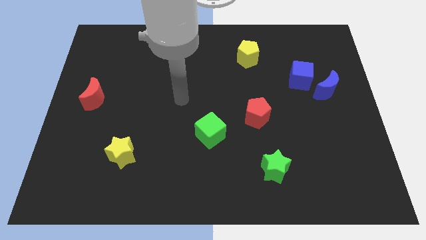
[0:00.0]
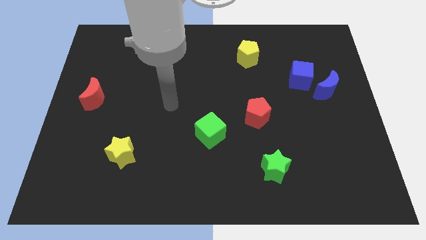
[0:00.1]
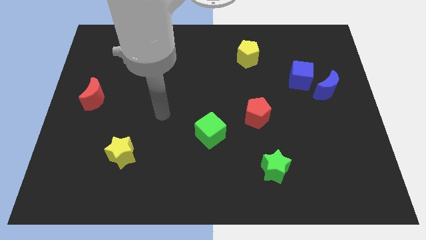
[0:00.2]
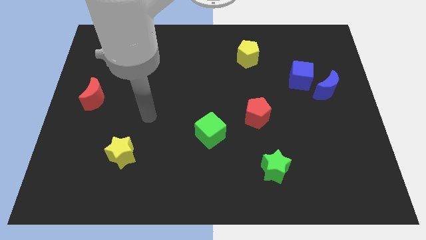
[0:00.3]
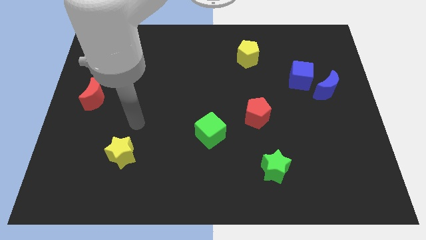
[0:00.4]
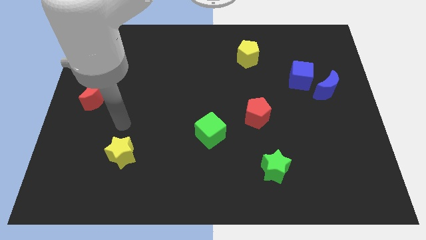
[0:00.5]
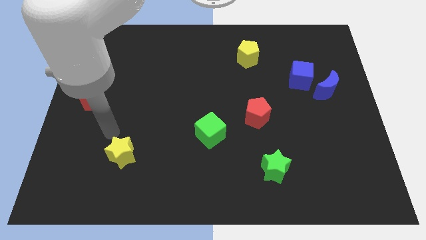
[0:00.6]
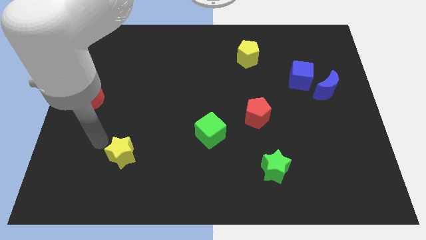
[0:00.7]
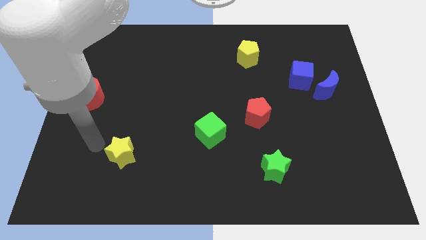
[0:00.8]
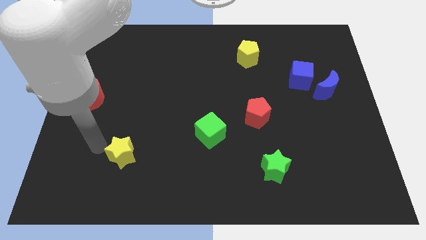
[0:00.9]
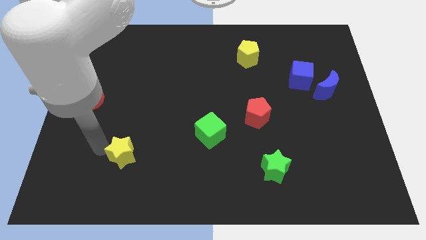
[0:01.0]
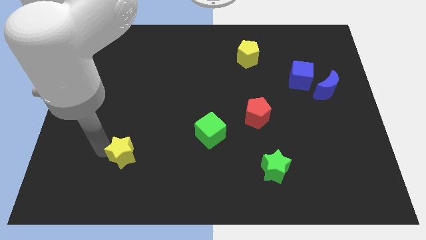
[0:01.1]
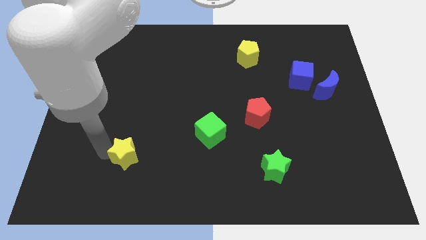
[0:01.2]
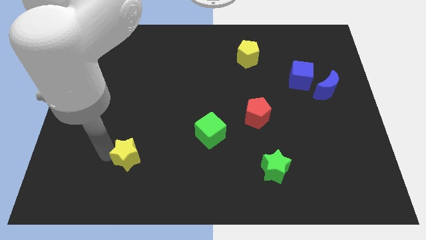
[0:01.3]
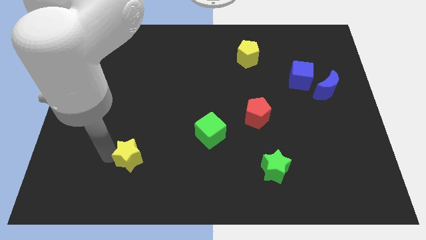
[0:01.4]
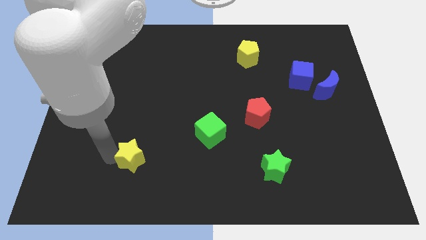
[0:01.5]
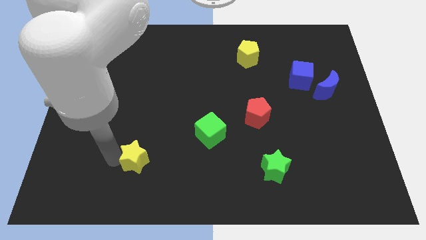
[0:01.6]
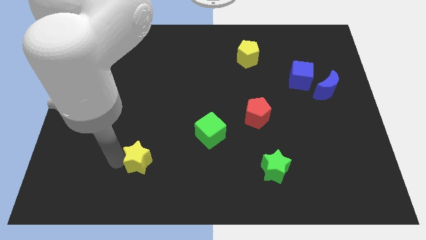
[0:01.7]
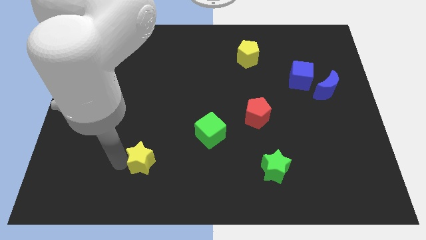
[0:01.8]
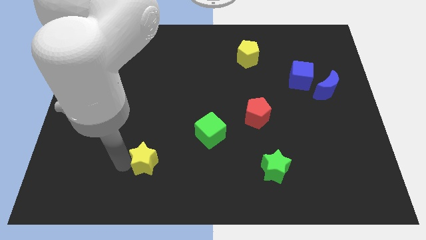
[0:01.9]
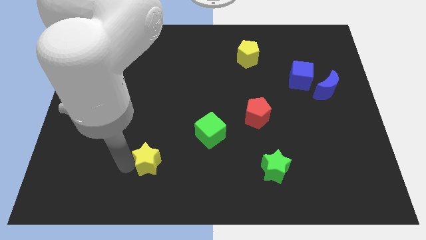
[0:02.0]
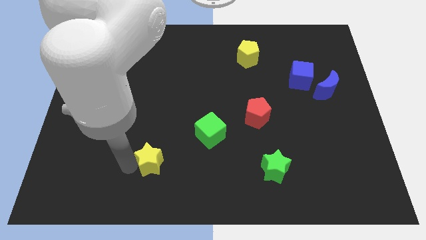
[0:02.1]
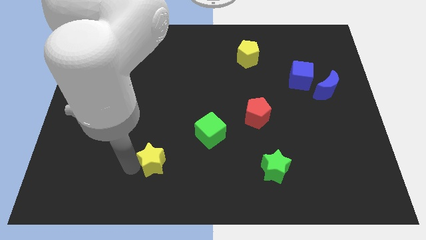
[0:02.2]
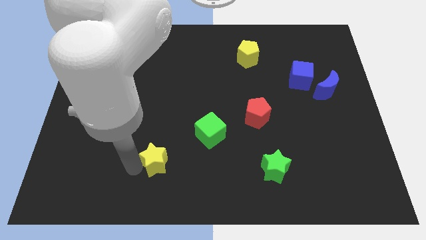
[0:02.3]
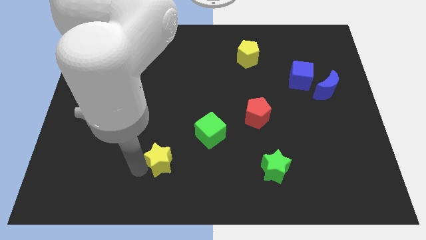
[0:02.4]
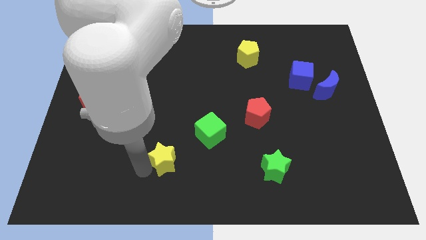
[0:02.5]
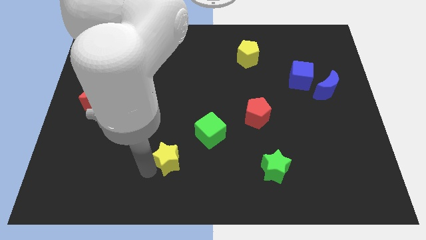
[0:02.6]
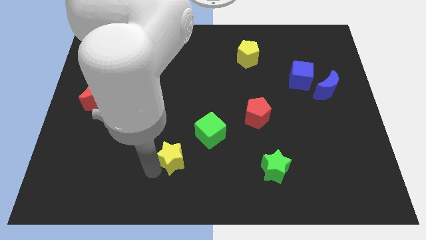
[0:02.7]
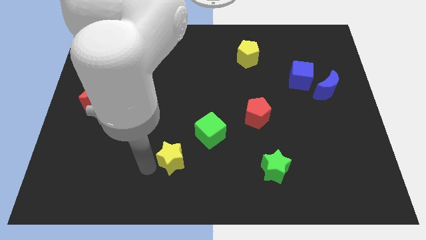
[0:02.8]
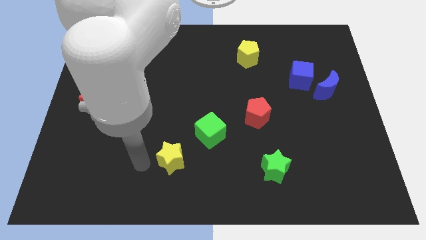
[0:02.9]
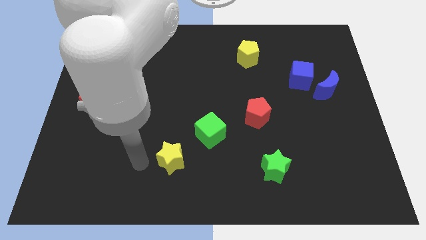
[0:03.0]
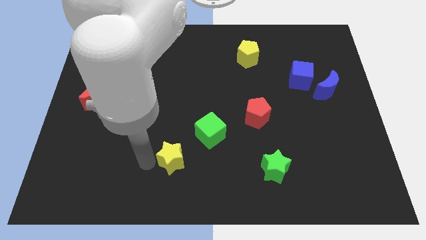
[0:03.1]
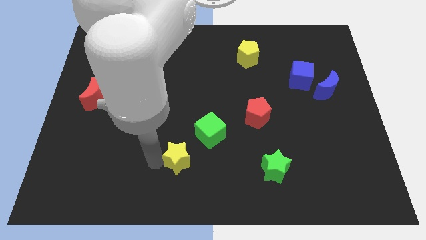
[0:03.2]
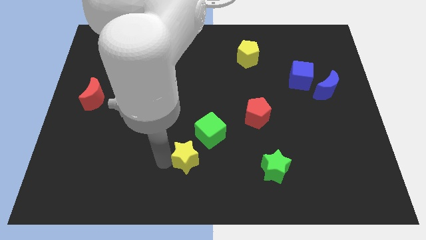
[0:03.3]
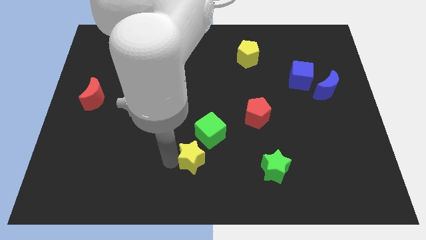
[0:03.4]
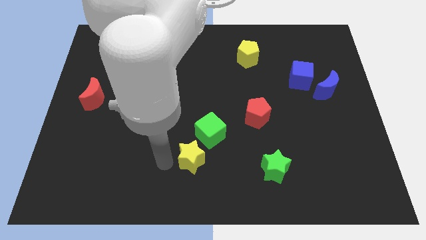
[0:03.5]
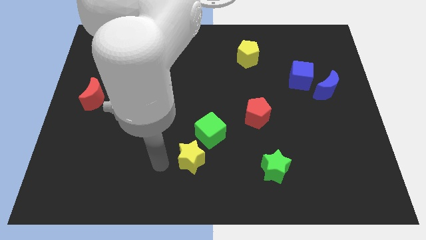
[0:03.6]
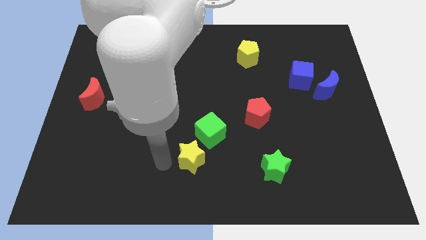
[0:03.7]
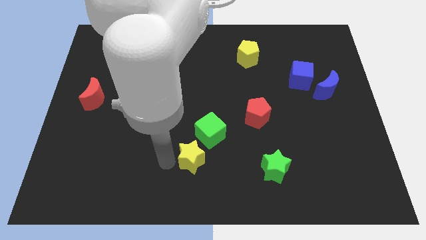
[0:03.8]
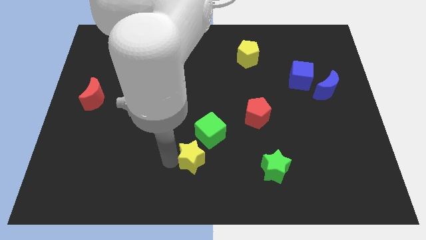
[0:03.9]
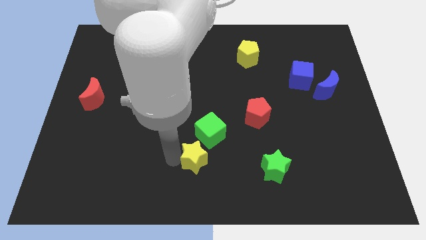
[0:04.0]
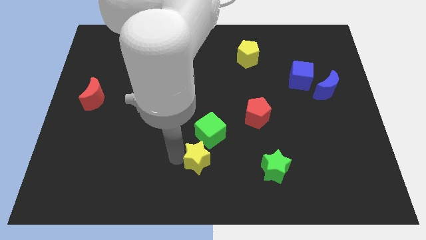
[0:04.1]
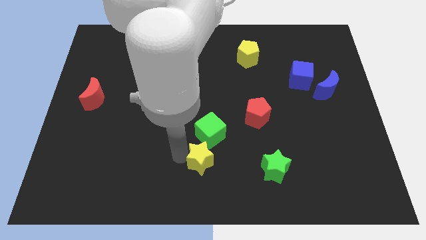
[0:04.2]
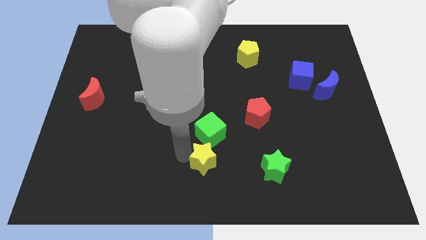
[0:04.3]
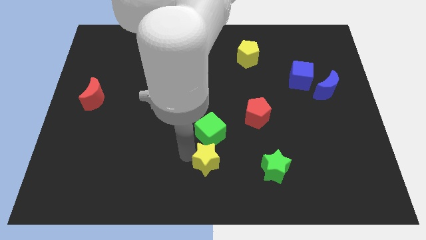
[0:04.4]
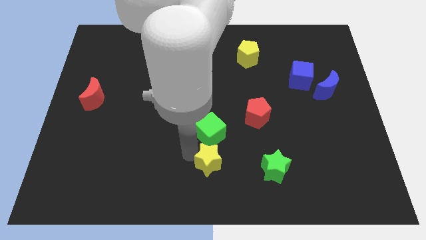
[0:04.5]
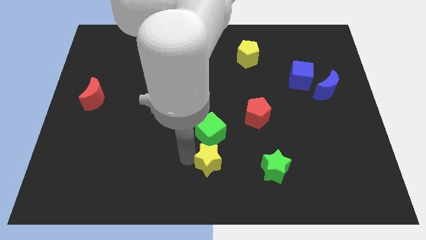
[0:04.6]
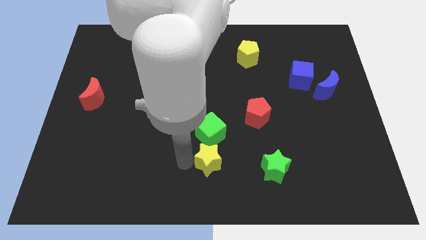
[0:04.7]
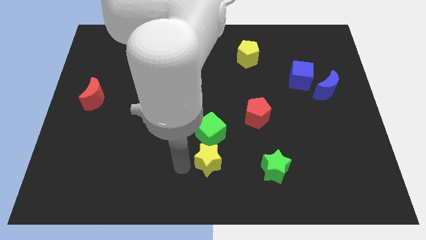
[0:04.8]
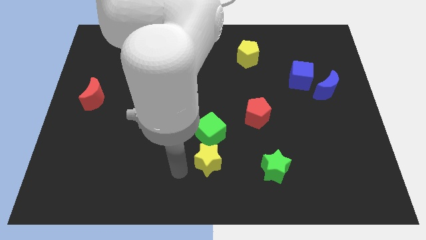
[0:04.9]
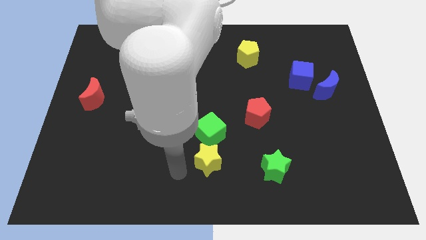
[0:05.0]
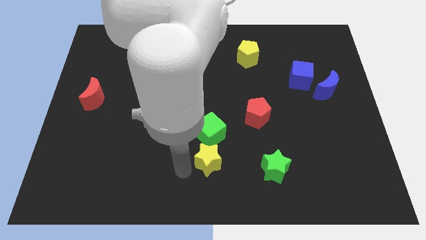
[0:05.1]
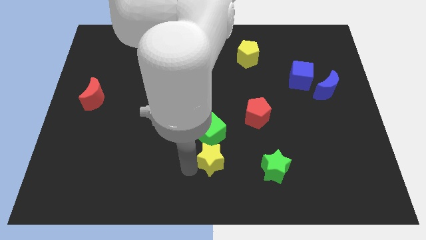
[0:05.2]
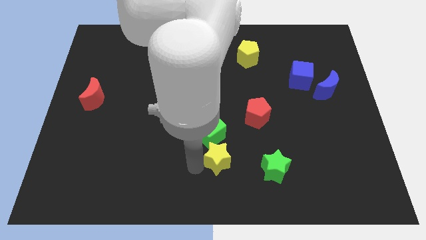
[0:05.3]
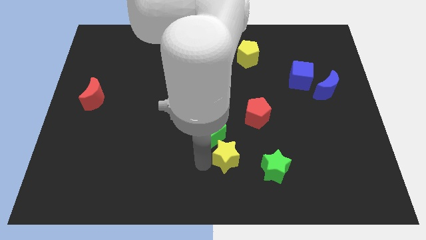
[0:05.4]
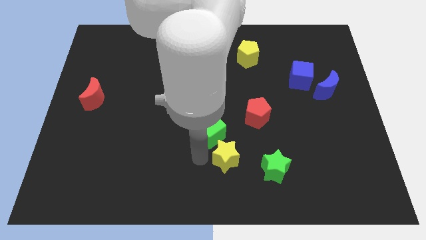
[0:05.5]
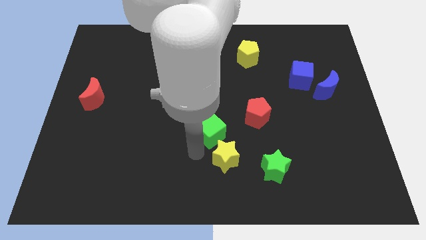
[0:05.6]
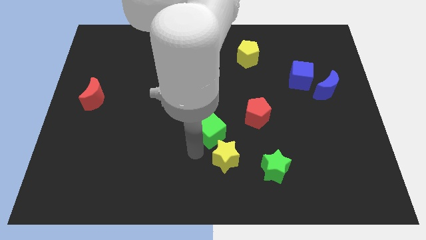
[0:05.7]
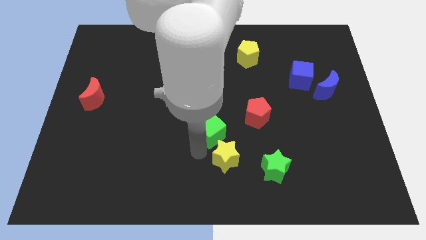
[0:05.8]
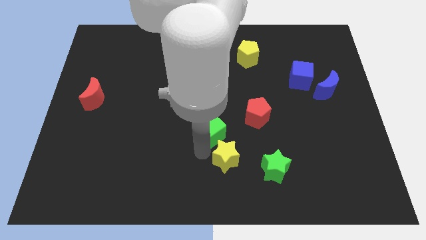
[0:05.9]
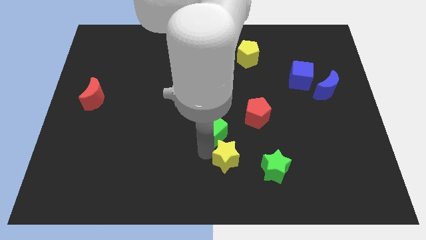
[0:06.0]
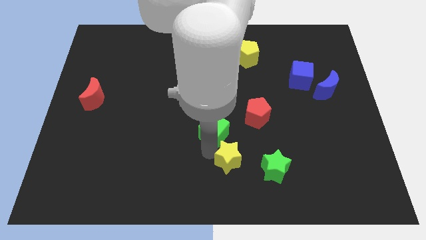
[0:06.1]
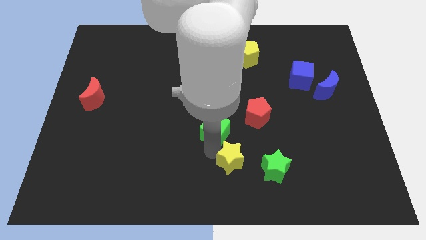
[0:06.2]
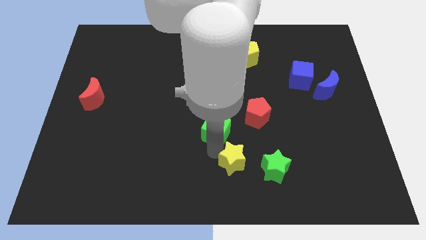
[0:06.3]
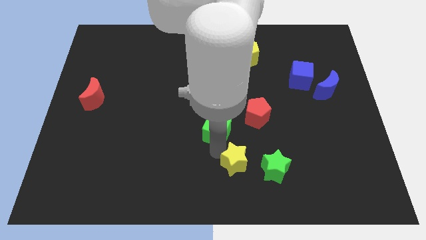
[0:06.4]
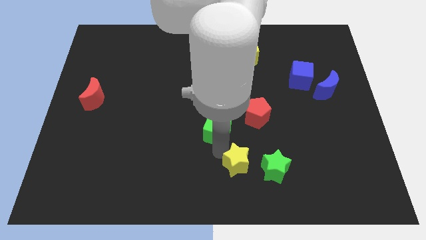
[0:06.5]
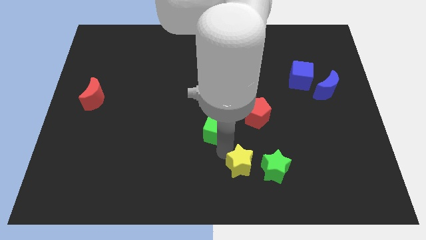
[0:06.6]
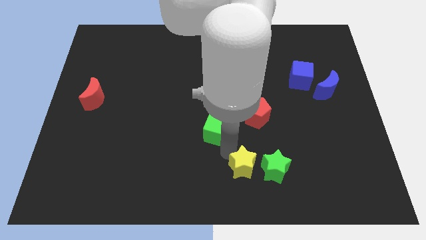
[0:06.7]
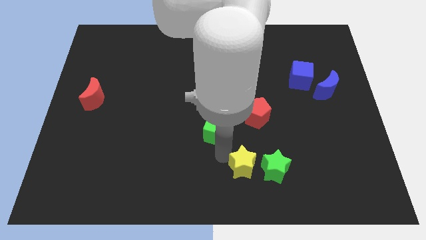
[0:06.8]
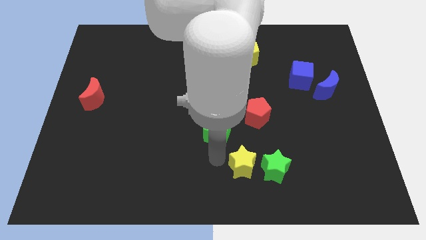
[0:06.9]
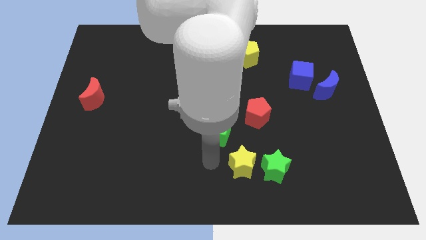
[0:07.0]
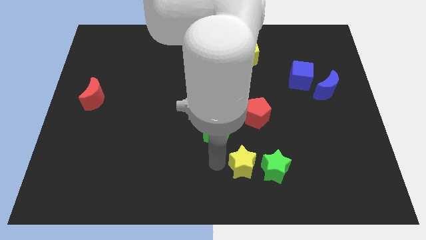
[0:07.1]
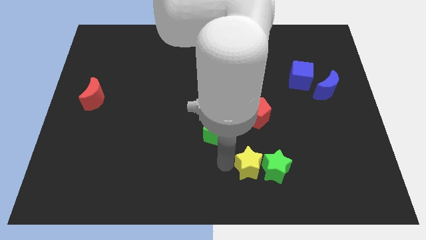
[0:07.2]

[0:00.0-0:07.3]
put the yellow star close to the green star

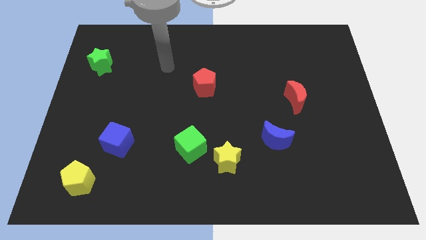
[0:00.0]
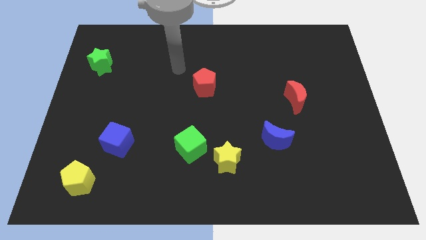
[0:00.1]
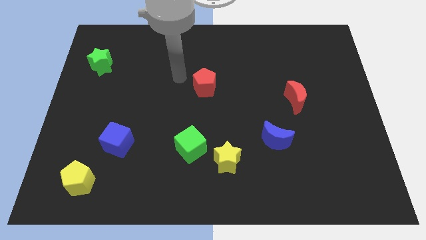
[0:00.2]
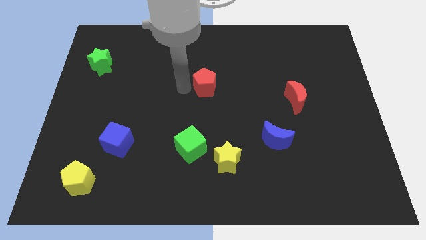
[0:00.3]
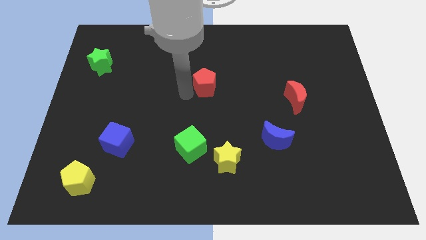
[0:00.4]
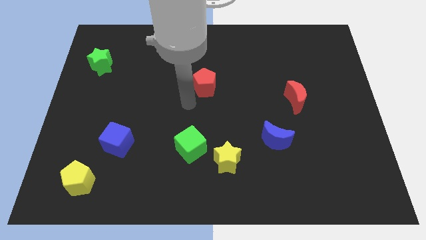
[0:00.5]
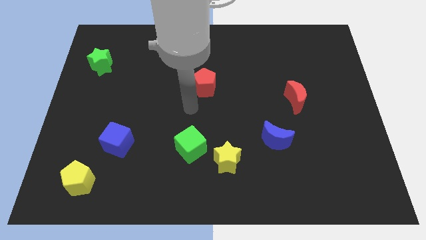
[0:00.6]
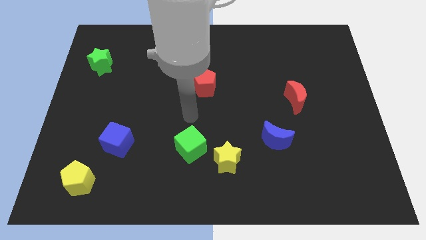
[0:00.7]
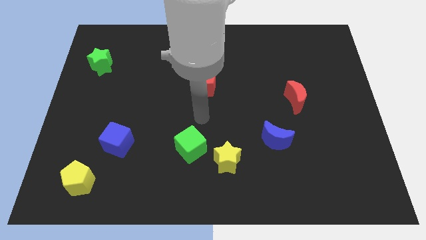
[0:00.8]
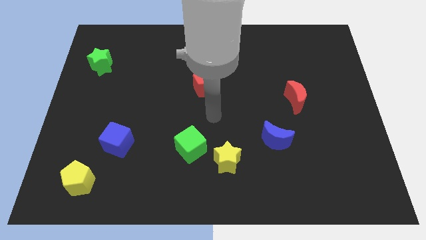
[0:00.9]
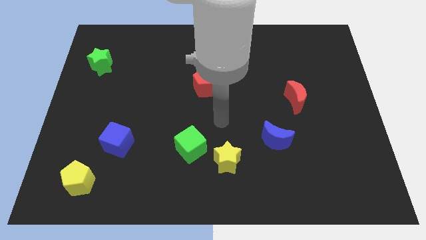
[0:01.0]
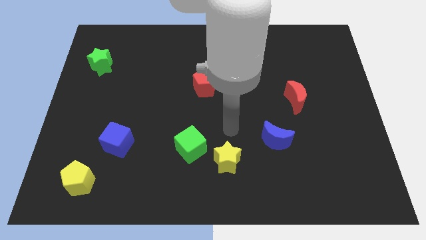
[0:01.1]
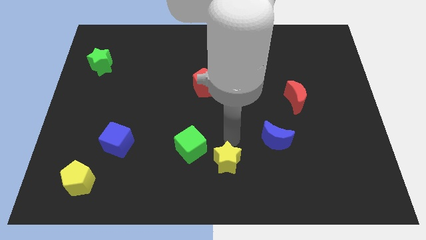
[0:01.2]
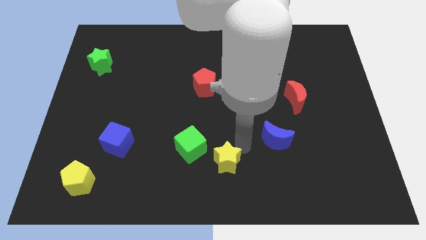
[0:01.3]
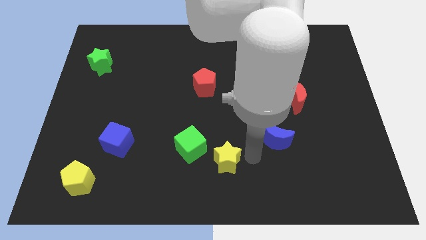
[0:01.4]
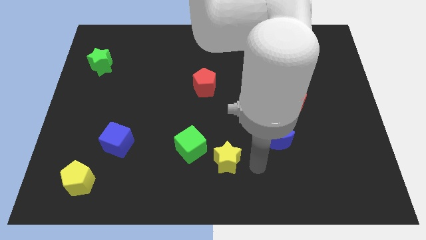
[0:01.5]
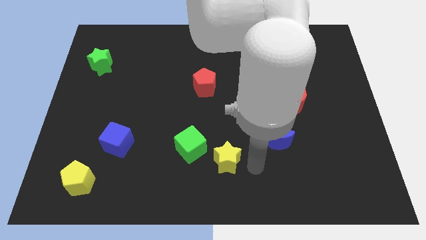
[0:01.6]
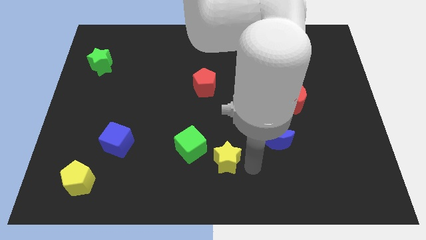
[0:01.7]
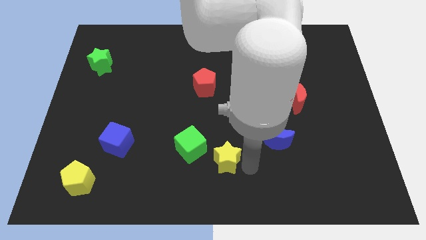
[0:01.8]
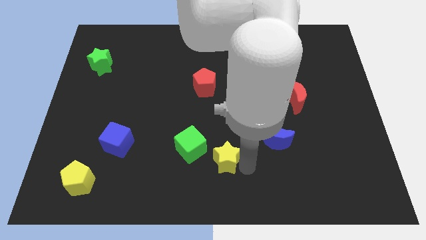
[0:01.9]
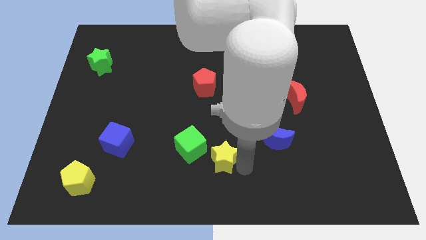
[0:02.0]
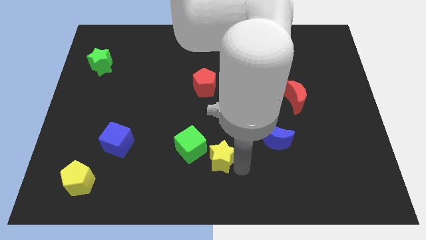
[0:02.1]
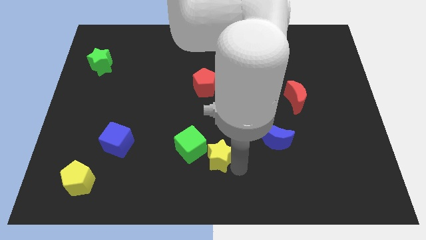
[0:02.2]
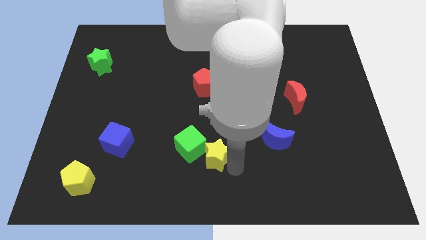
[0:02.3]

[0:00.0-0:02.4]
put the yellow star next to the green cube
